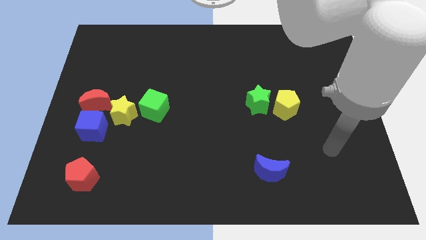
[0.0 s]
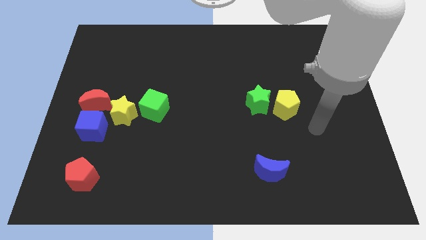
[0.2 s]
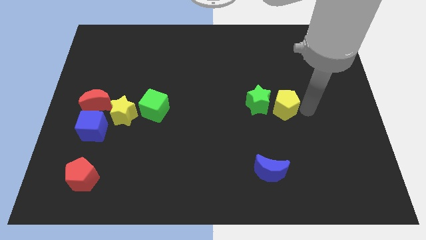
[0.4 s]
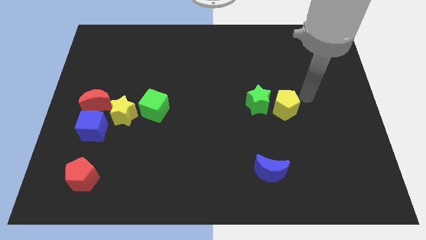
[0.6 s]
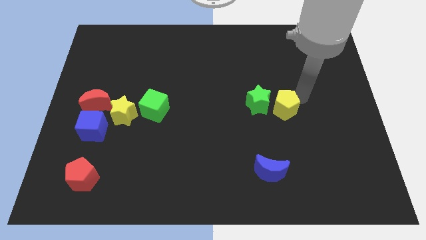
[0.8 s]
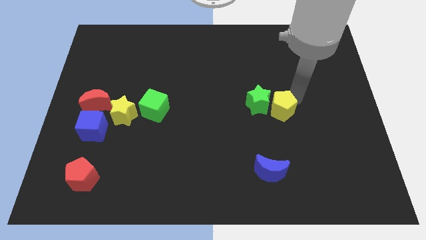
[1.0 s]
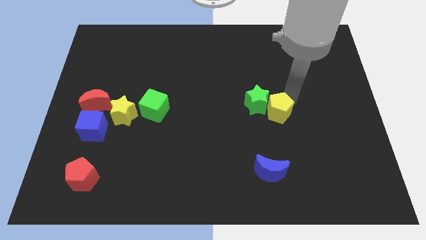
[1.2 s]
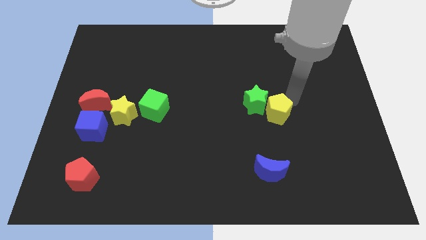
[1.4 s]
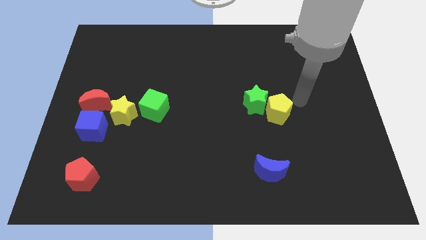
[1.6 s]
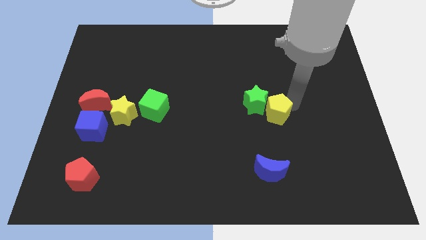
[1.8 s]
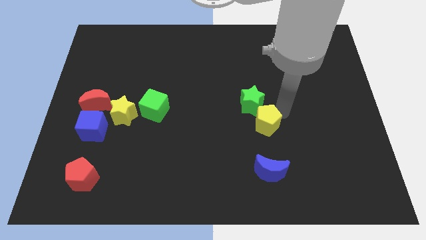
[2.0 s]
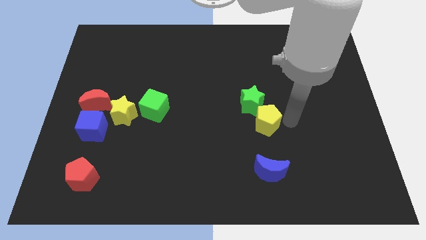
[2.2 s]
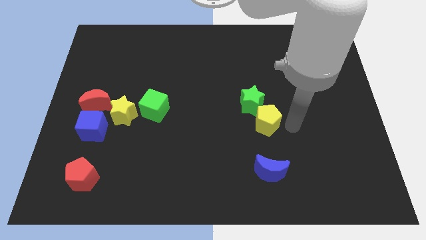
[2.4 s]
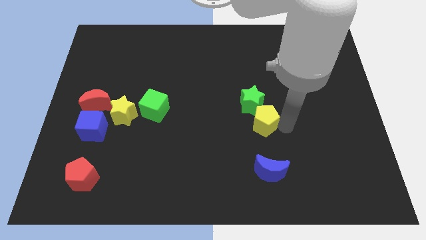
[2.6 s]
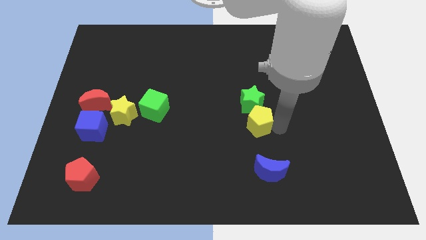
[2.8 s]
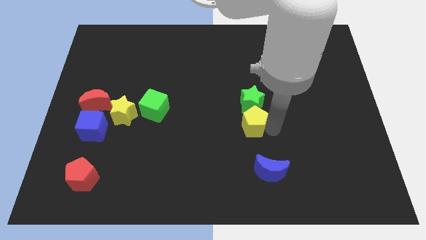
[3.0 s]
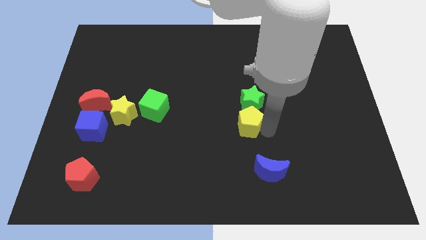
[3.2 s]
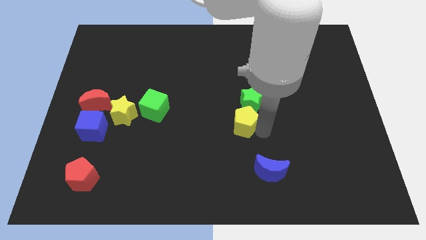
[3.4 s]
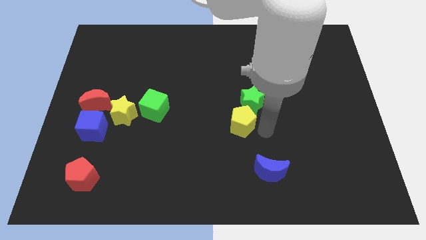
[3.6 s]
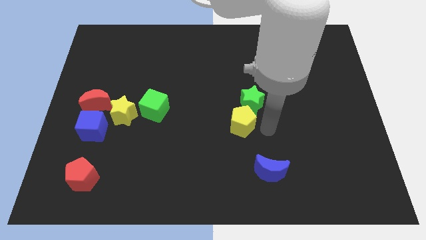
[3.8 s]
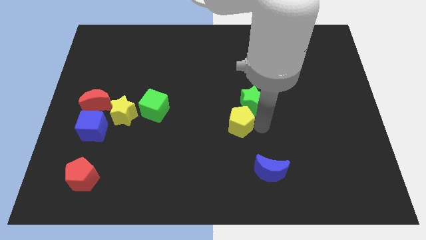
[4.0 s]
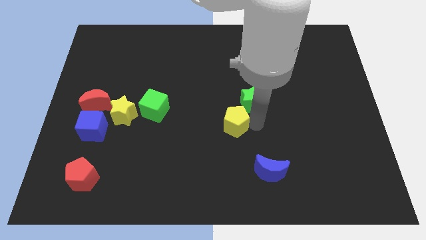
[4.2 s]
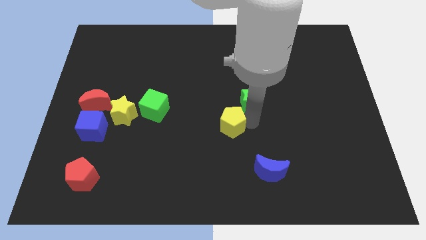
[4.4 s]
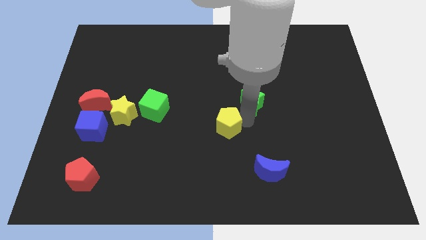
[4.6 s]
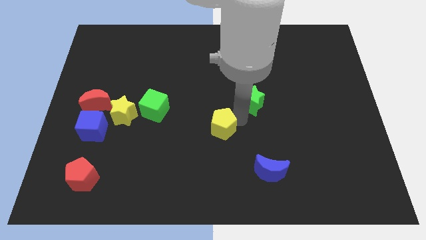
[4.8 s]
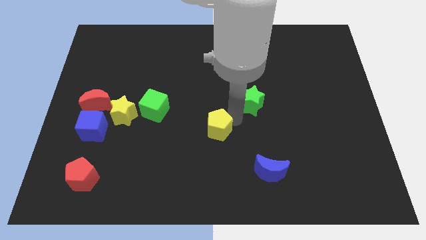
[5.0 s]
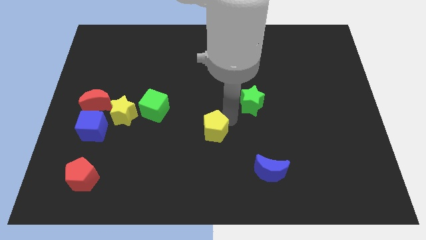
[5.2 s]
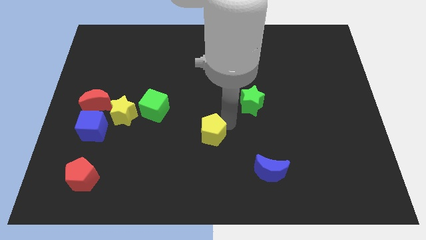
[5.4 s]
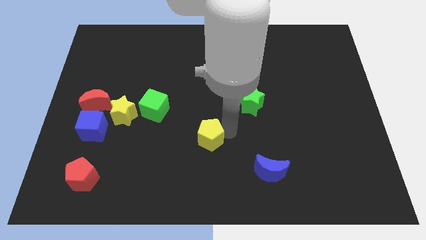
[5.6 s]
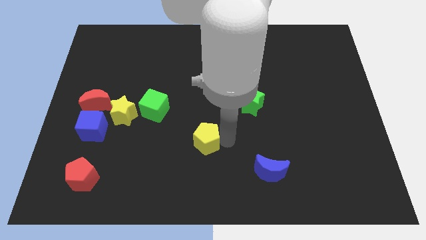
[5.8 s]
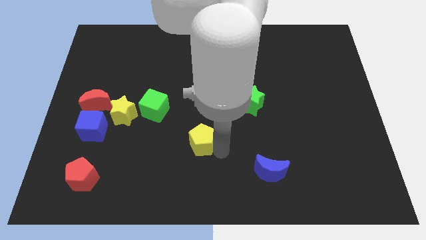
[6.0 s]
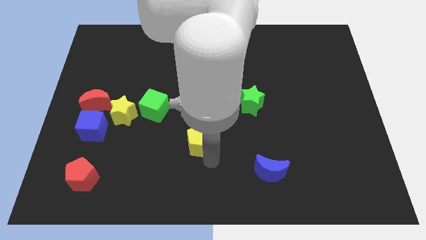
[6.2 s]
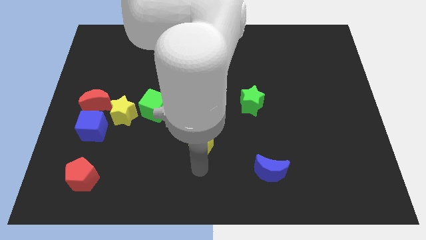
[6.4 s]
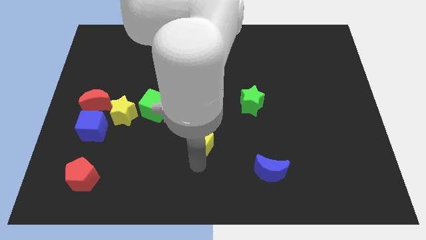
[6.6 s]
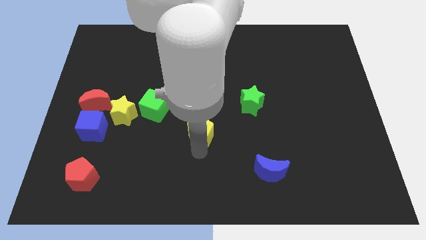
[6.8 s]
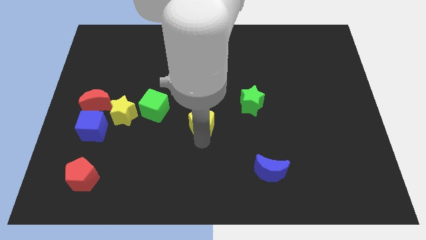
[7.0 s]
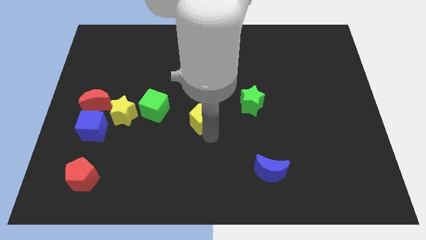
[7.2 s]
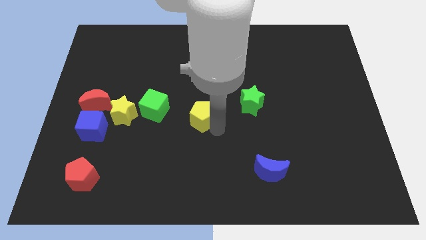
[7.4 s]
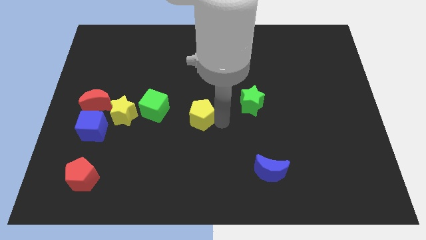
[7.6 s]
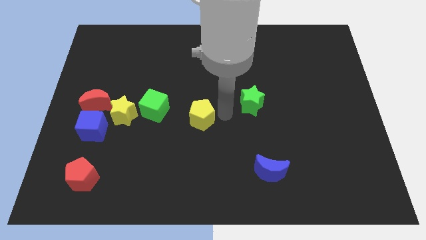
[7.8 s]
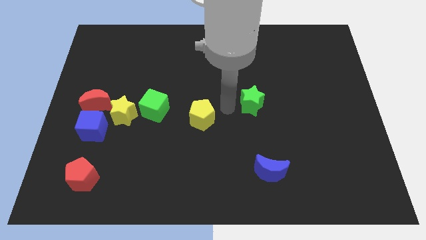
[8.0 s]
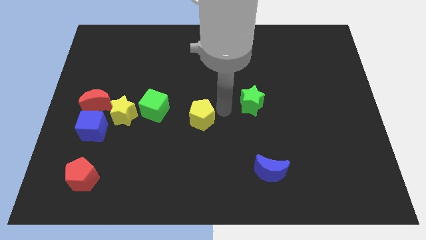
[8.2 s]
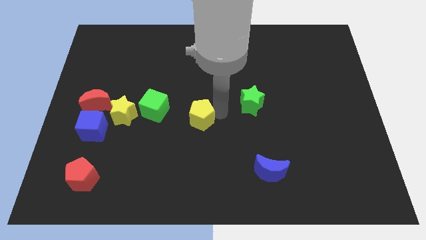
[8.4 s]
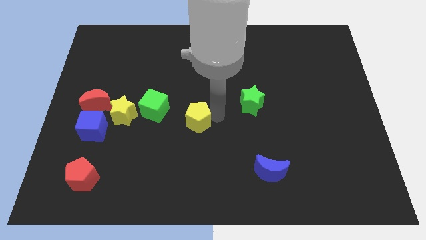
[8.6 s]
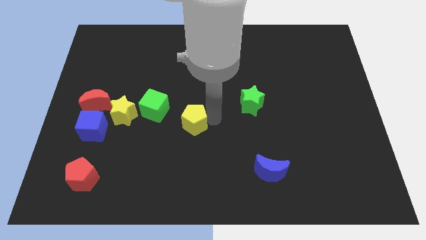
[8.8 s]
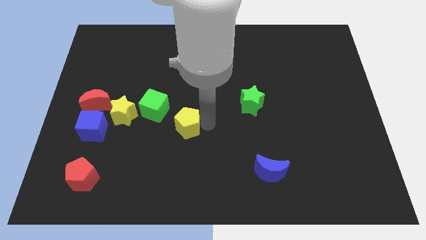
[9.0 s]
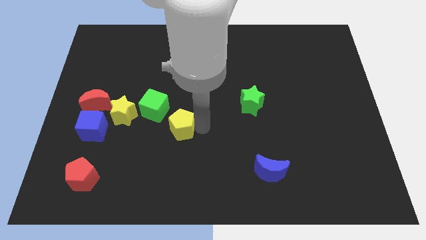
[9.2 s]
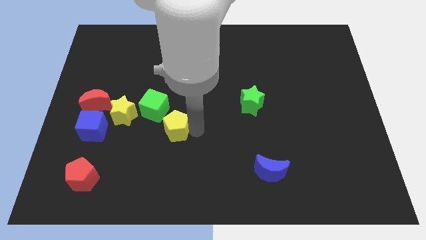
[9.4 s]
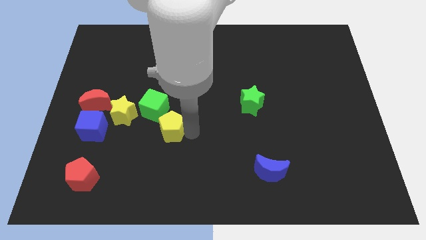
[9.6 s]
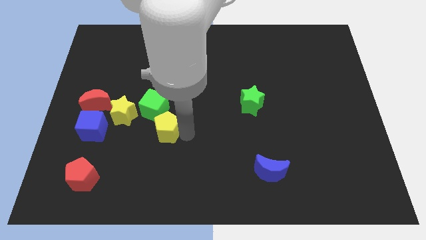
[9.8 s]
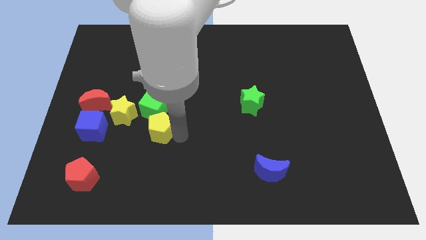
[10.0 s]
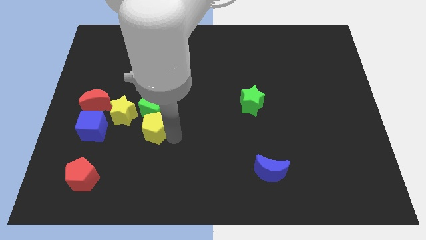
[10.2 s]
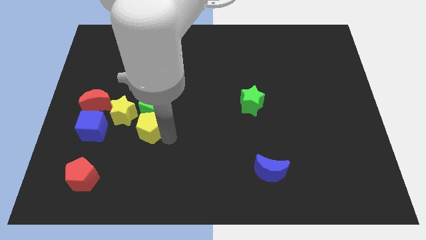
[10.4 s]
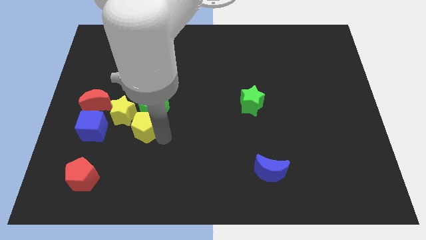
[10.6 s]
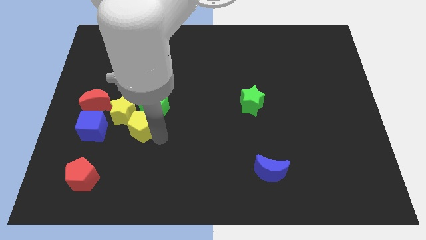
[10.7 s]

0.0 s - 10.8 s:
push the yellow pentagon close to the yellow star

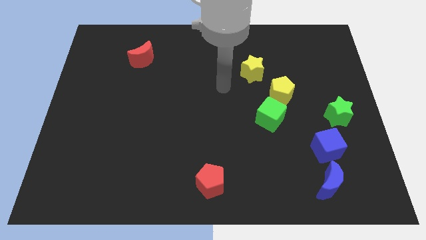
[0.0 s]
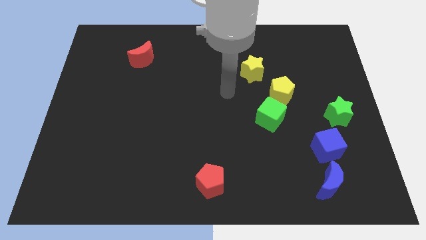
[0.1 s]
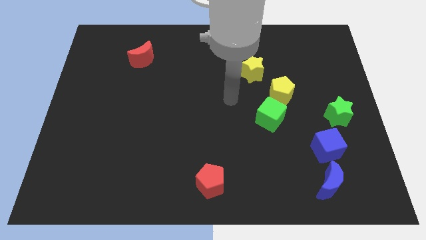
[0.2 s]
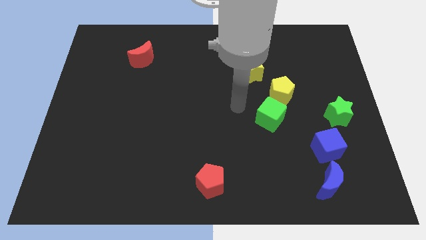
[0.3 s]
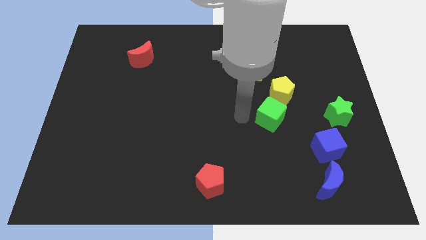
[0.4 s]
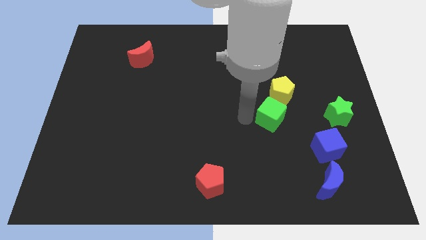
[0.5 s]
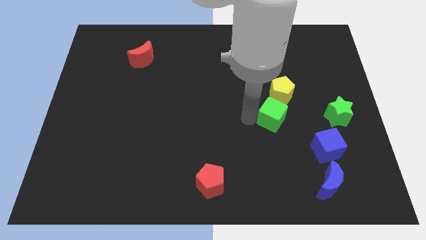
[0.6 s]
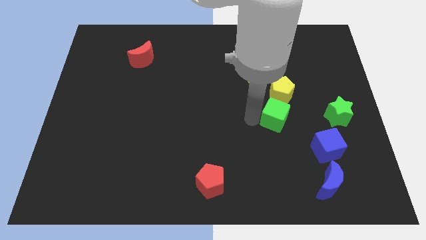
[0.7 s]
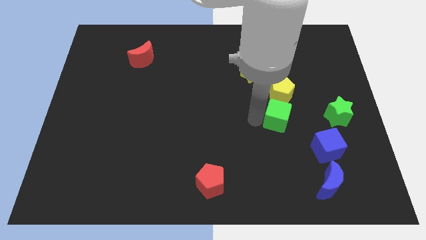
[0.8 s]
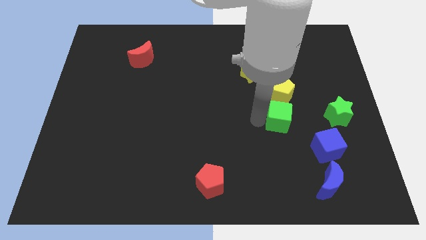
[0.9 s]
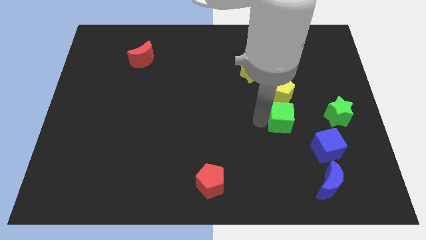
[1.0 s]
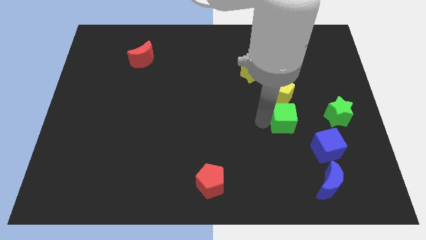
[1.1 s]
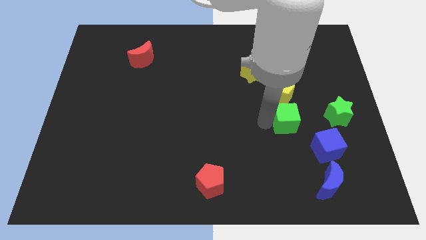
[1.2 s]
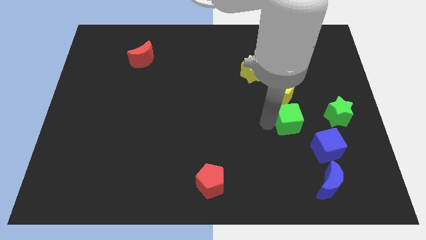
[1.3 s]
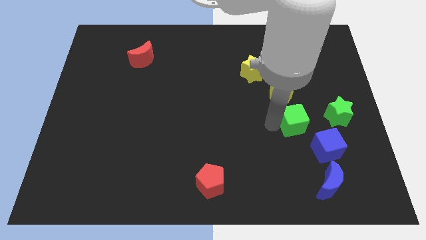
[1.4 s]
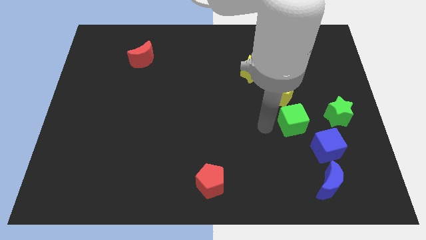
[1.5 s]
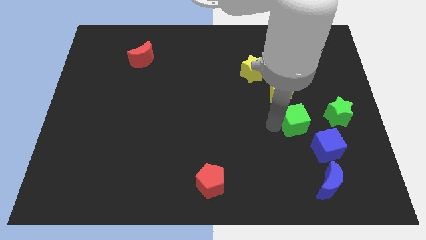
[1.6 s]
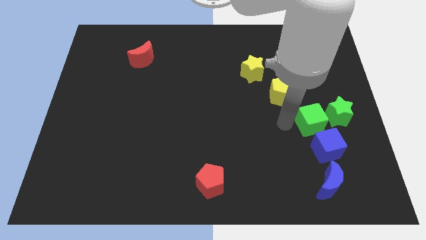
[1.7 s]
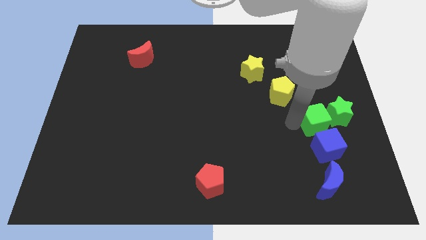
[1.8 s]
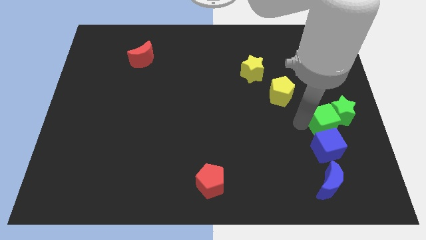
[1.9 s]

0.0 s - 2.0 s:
put the green cube next to the green star
